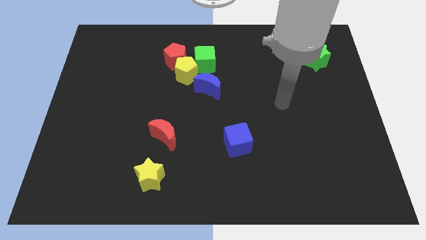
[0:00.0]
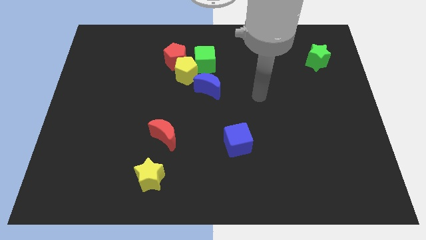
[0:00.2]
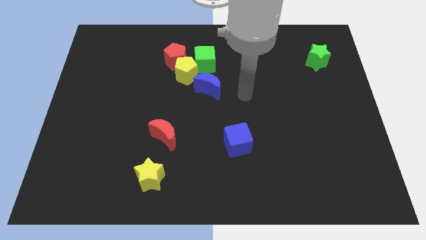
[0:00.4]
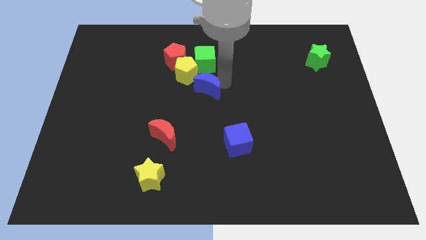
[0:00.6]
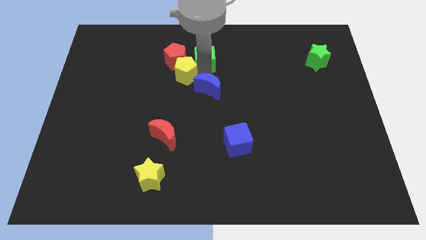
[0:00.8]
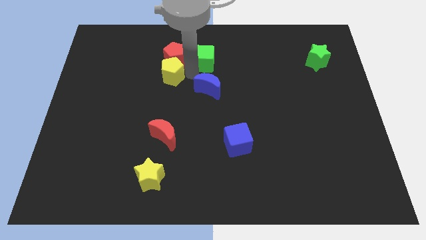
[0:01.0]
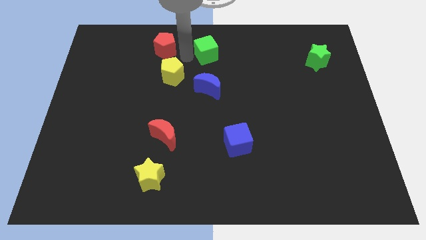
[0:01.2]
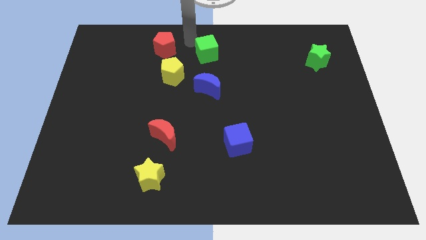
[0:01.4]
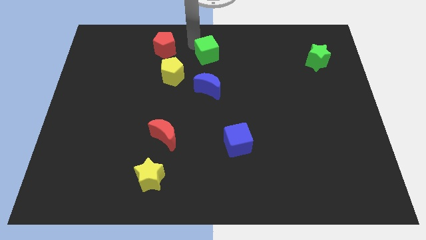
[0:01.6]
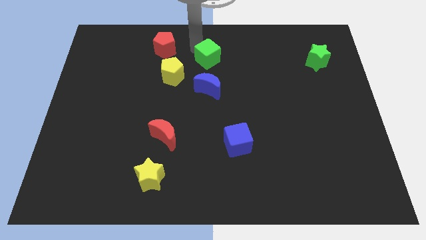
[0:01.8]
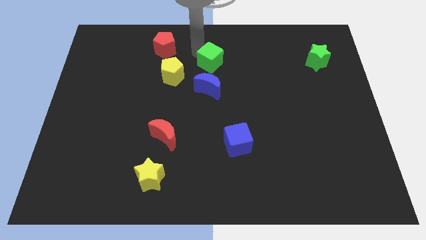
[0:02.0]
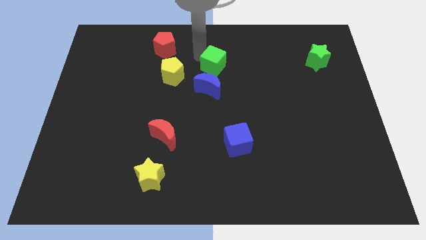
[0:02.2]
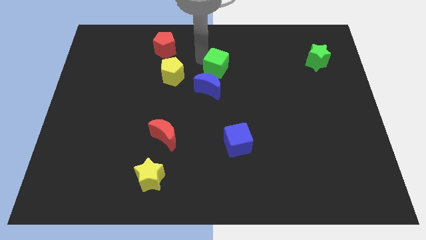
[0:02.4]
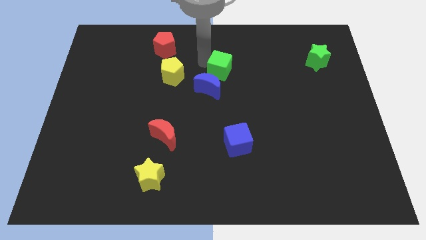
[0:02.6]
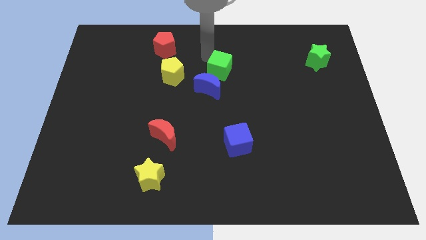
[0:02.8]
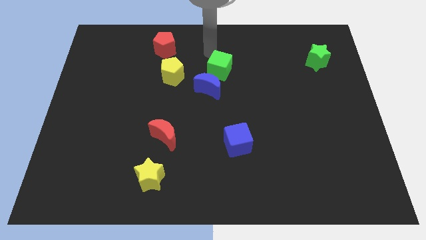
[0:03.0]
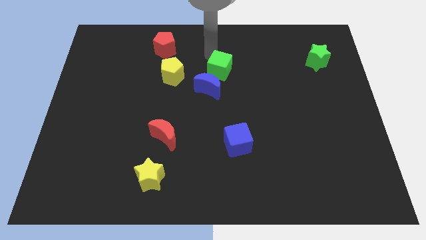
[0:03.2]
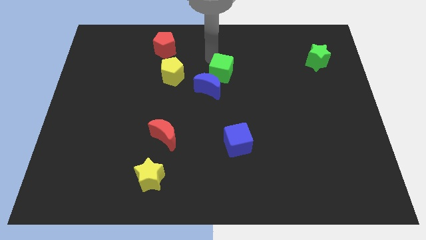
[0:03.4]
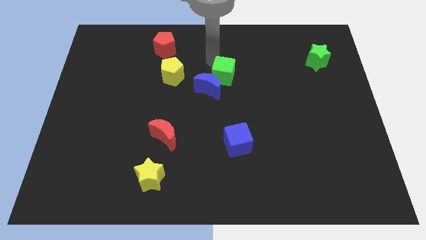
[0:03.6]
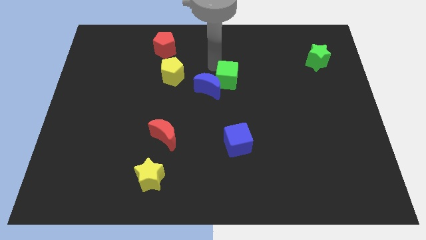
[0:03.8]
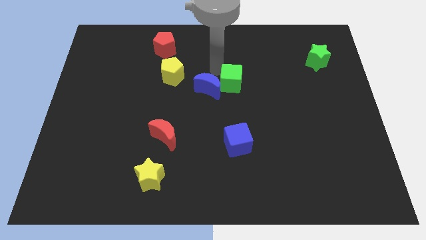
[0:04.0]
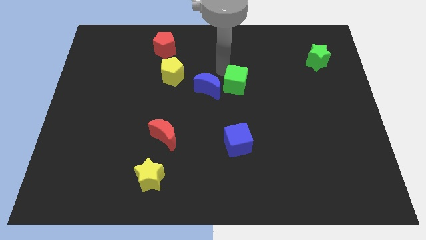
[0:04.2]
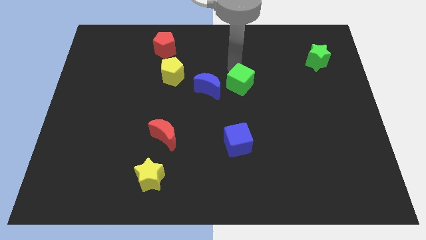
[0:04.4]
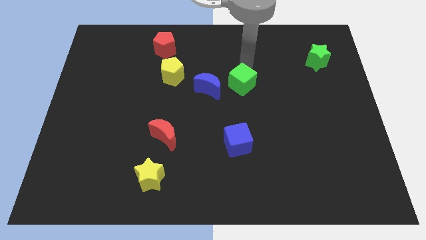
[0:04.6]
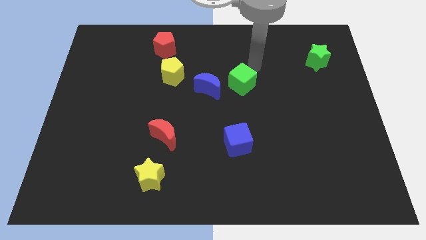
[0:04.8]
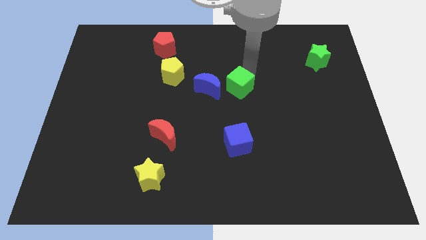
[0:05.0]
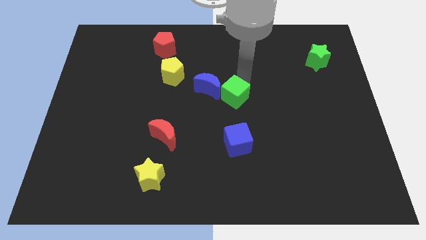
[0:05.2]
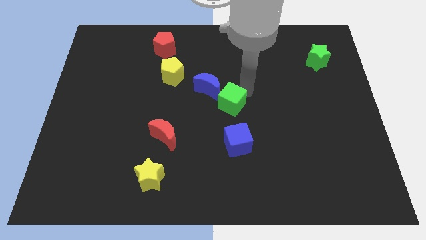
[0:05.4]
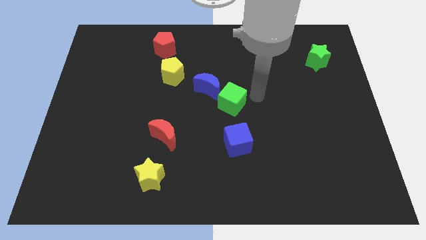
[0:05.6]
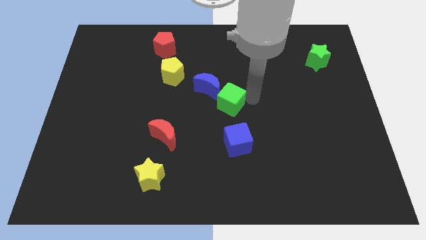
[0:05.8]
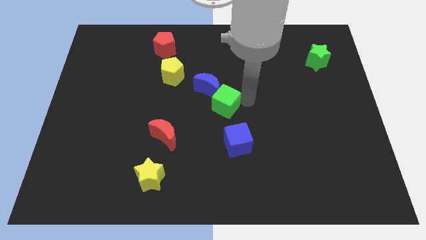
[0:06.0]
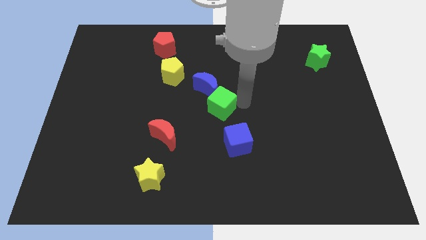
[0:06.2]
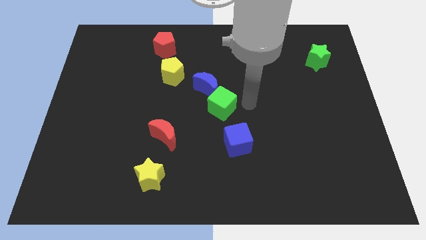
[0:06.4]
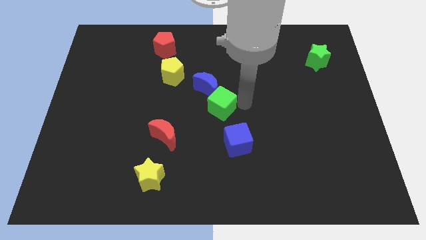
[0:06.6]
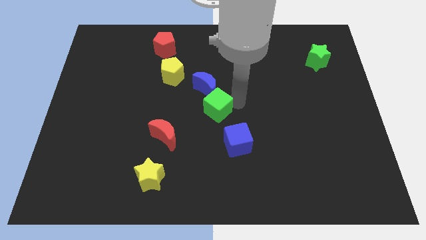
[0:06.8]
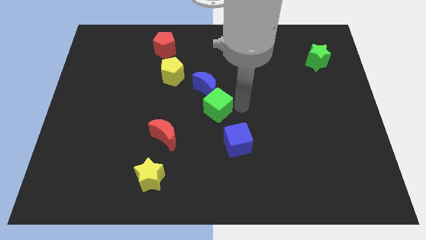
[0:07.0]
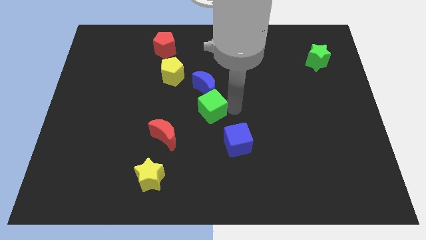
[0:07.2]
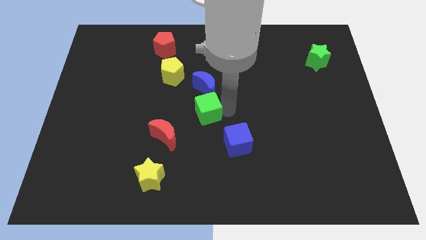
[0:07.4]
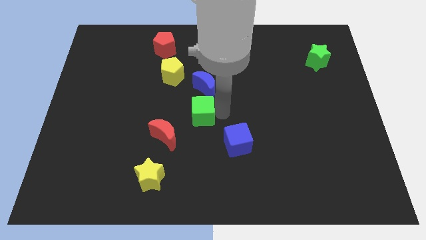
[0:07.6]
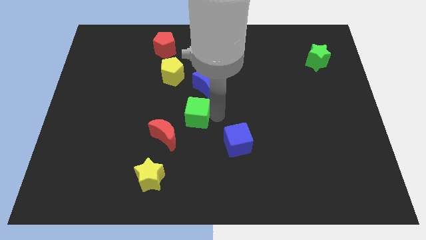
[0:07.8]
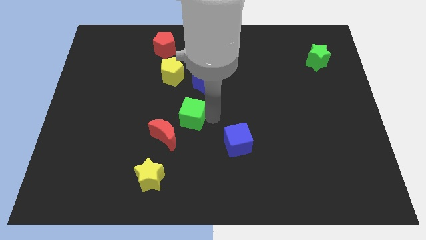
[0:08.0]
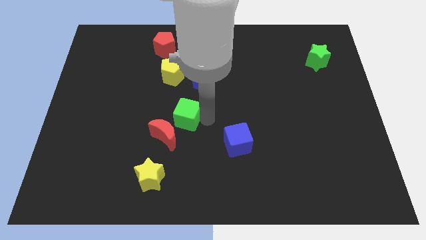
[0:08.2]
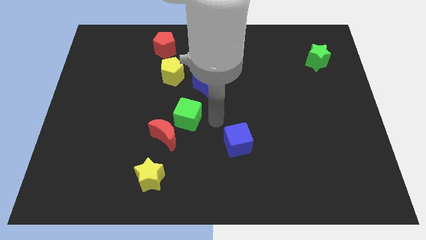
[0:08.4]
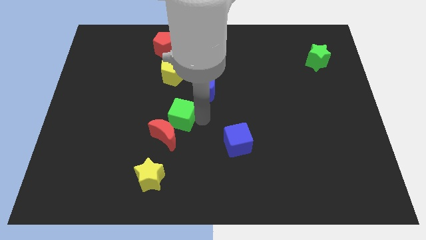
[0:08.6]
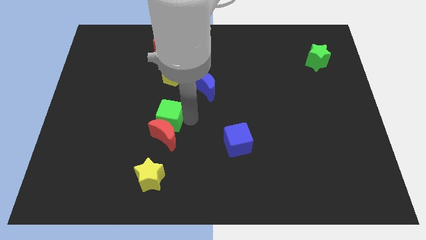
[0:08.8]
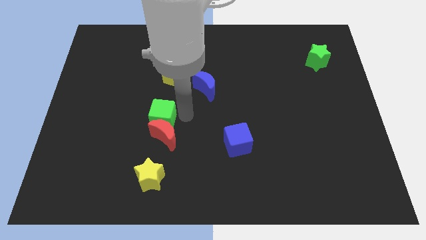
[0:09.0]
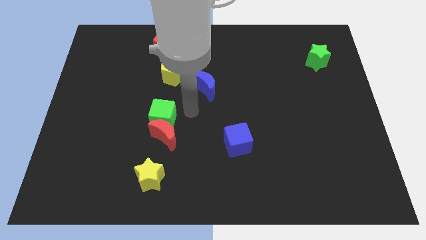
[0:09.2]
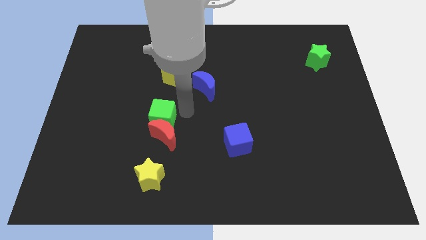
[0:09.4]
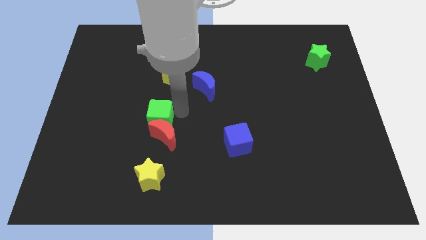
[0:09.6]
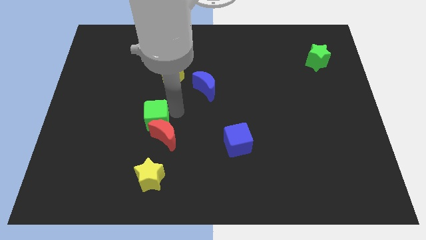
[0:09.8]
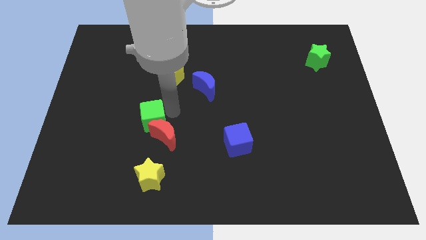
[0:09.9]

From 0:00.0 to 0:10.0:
slide the green cube diagonally downwards and to the left

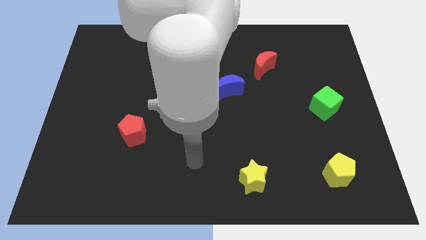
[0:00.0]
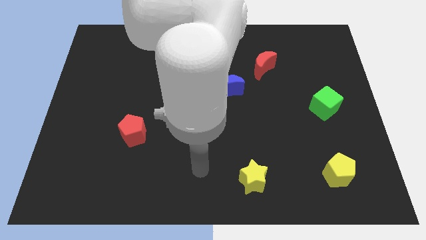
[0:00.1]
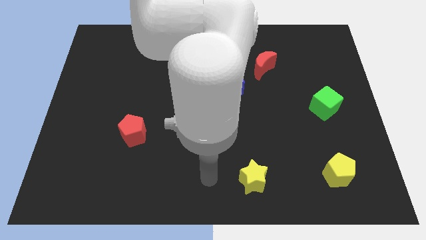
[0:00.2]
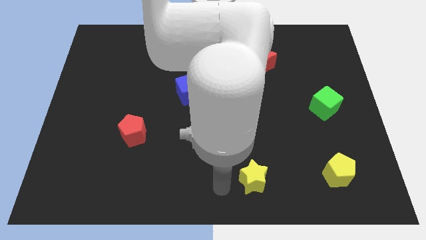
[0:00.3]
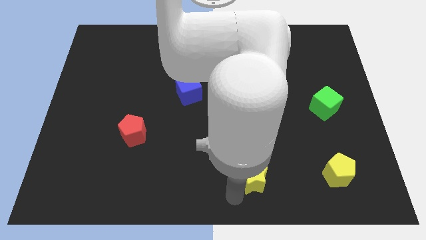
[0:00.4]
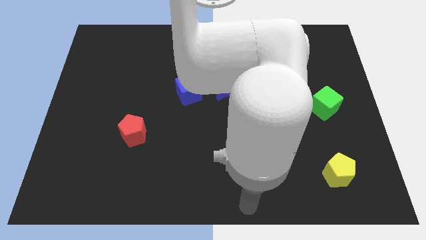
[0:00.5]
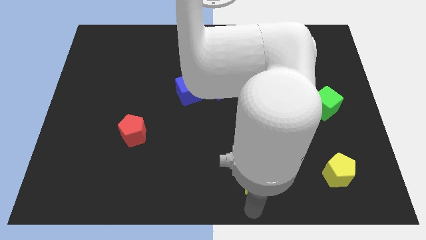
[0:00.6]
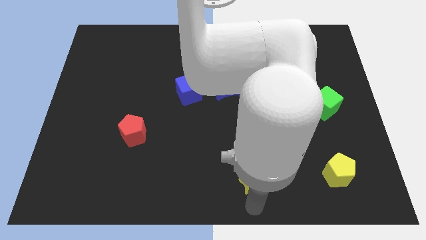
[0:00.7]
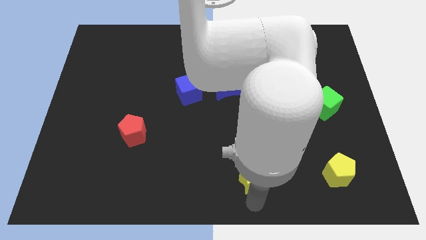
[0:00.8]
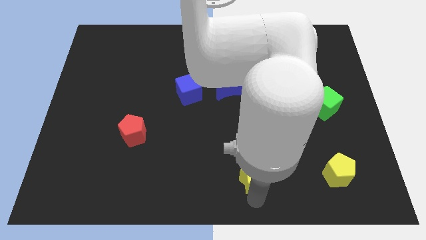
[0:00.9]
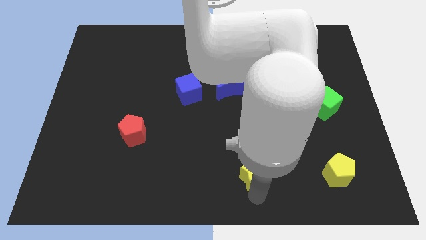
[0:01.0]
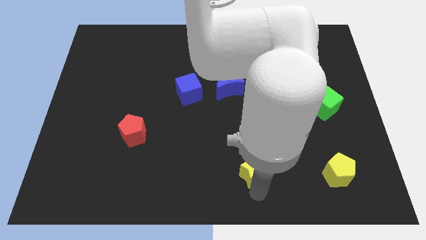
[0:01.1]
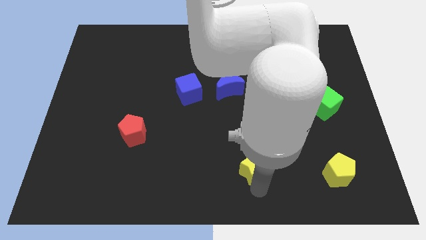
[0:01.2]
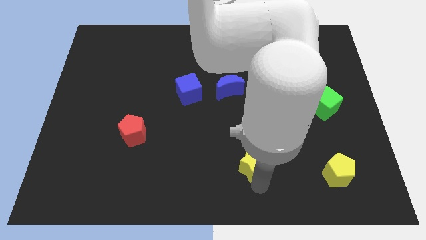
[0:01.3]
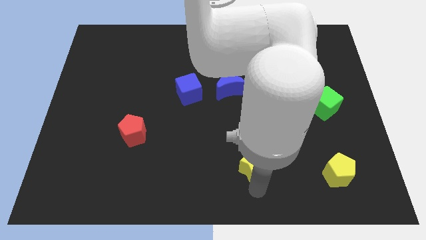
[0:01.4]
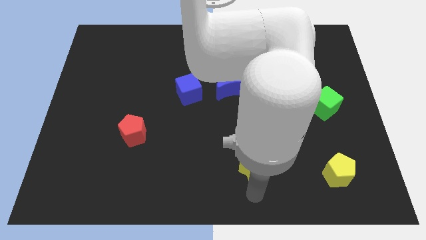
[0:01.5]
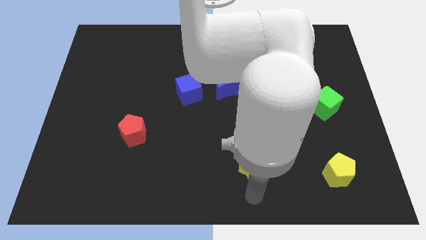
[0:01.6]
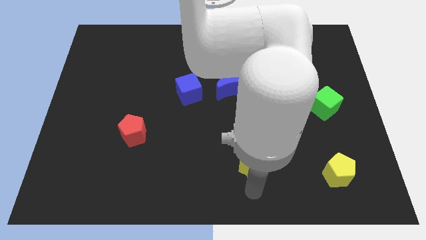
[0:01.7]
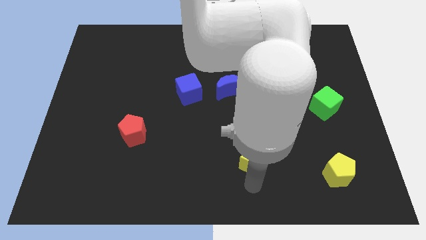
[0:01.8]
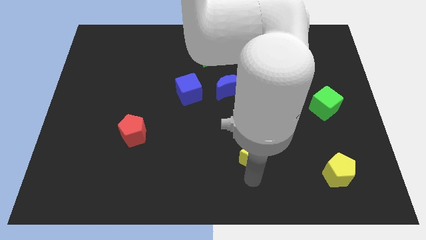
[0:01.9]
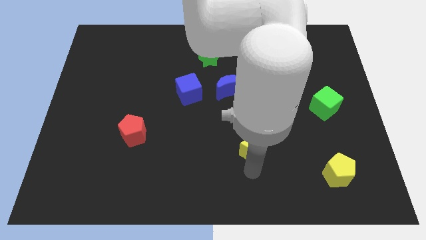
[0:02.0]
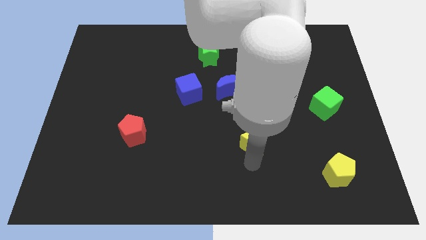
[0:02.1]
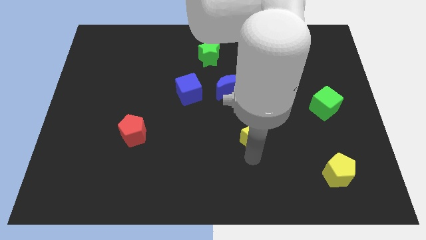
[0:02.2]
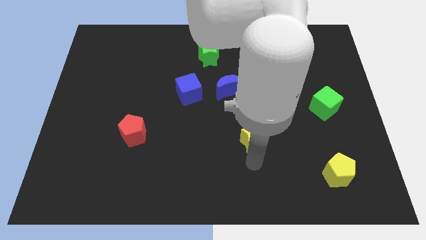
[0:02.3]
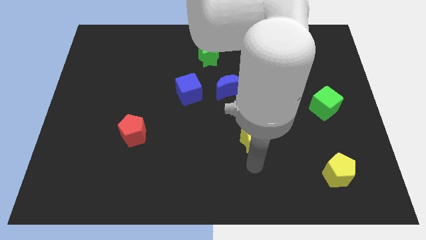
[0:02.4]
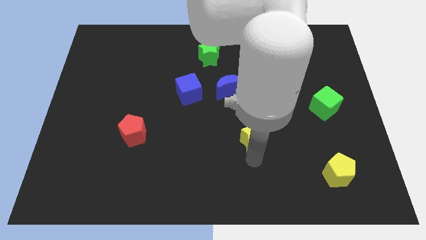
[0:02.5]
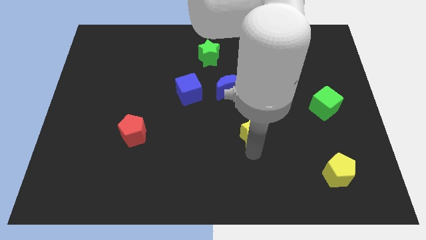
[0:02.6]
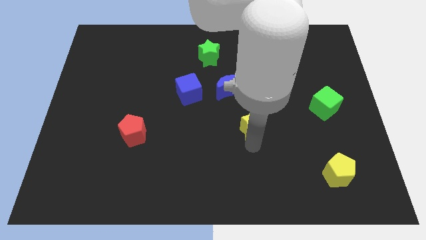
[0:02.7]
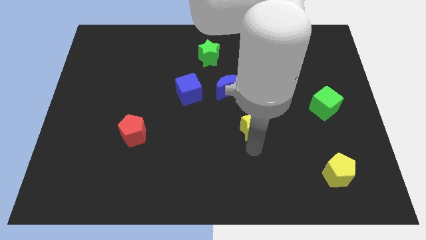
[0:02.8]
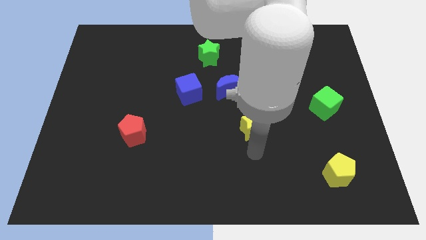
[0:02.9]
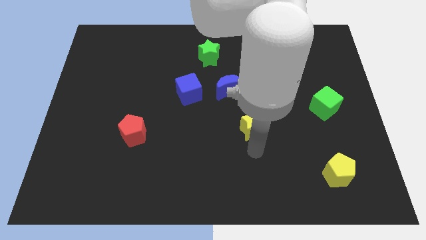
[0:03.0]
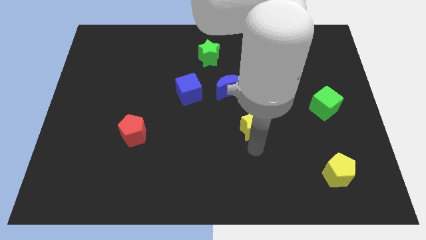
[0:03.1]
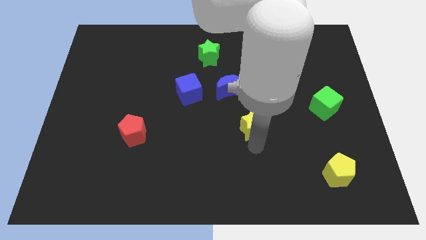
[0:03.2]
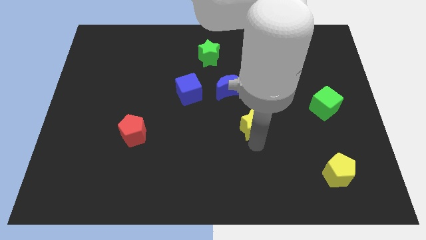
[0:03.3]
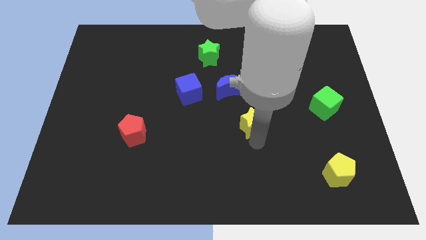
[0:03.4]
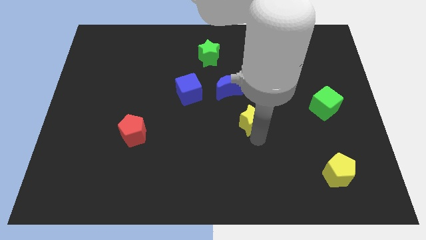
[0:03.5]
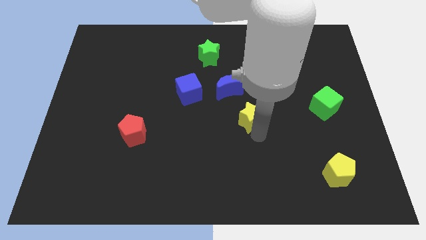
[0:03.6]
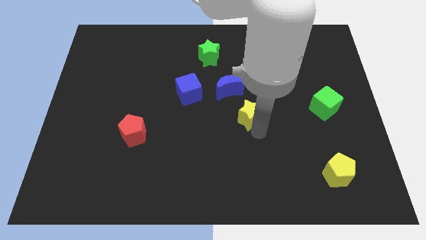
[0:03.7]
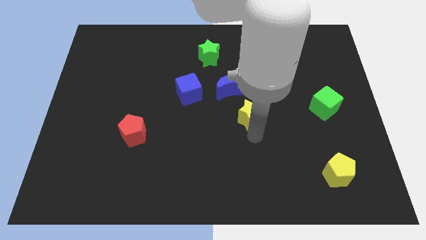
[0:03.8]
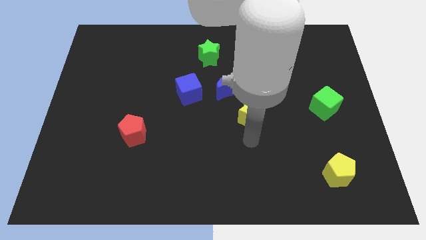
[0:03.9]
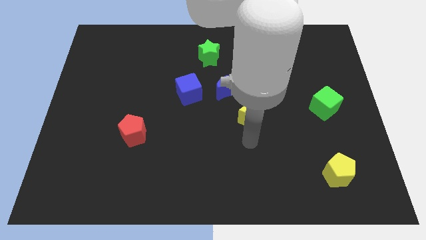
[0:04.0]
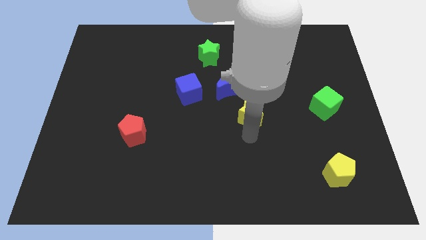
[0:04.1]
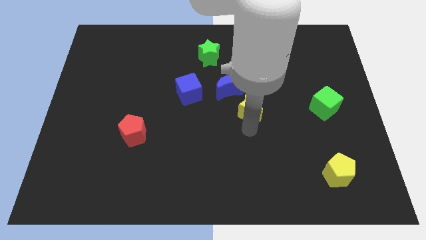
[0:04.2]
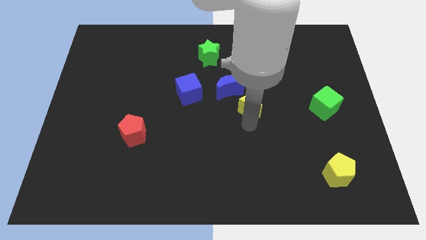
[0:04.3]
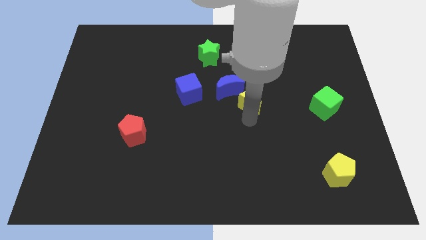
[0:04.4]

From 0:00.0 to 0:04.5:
move the yellow star upwards
